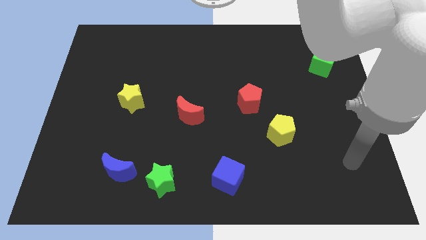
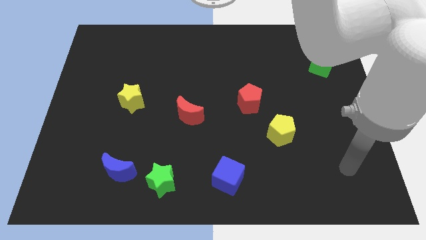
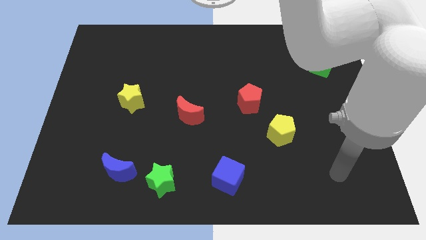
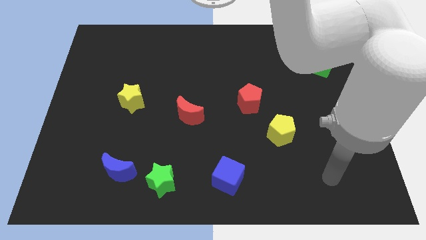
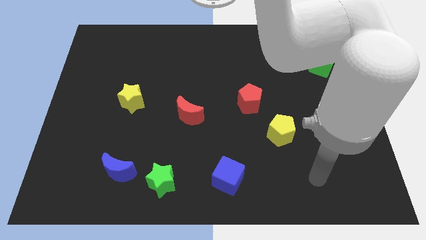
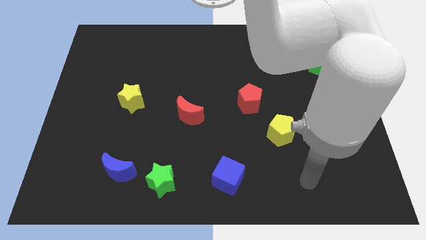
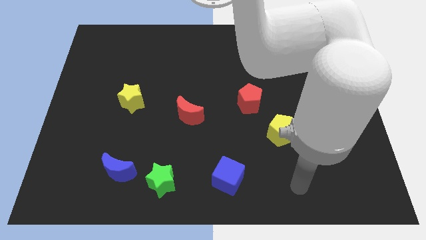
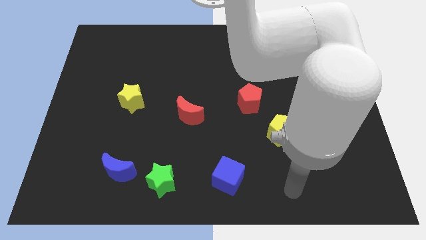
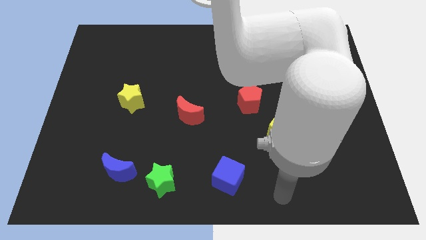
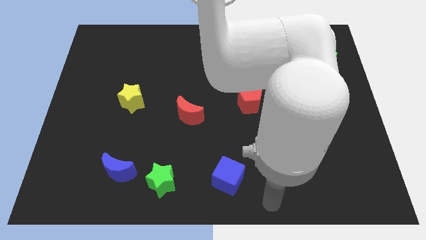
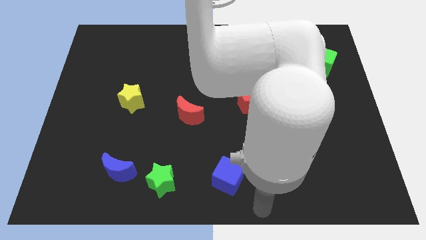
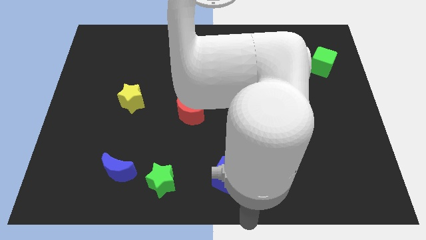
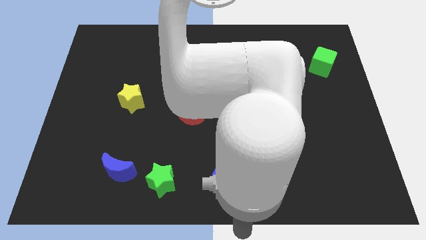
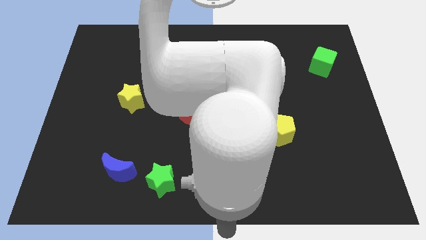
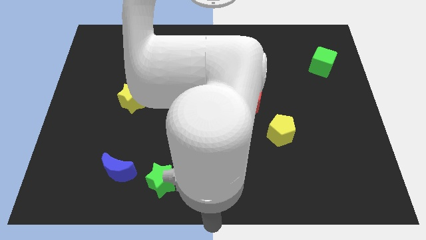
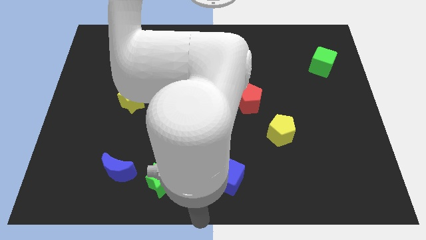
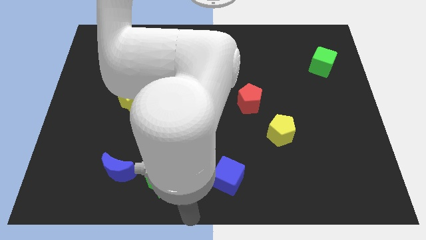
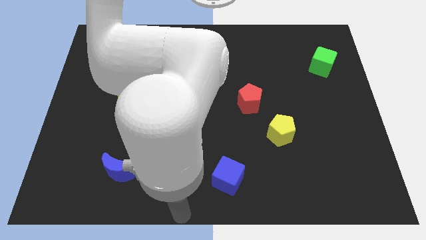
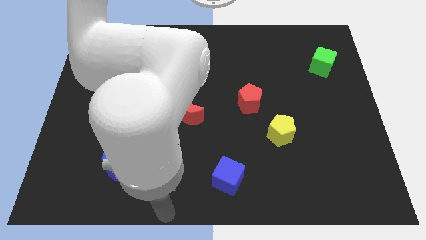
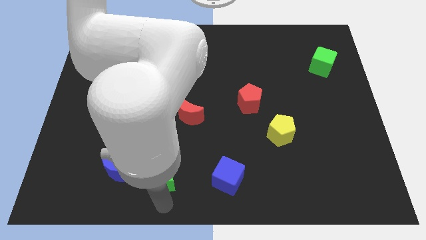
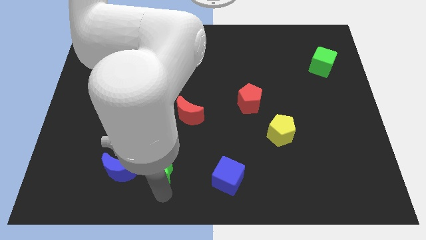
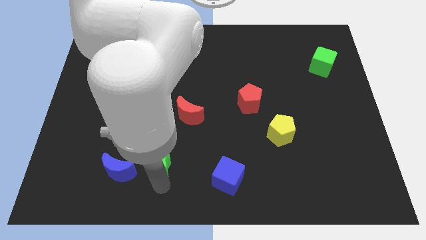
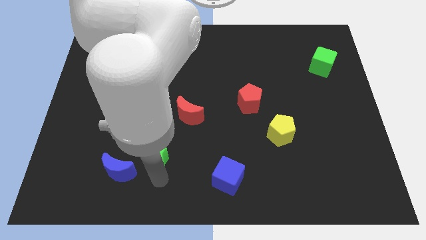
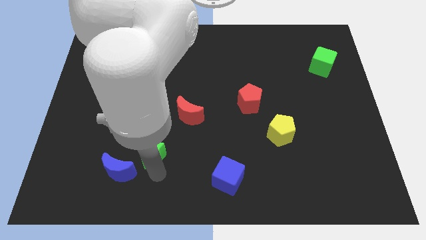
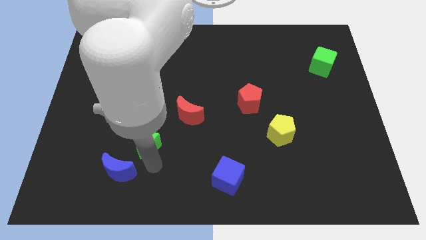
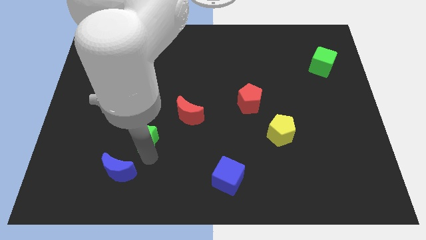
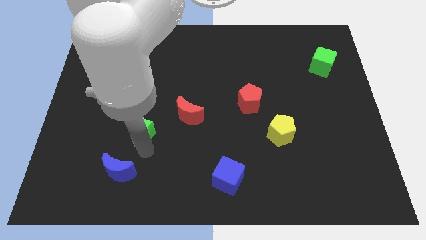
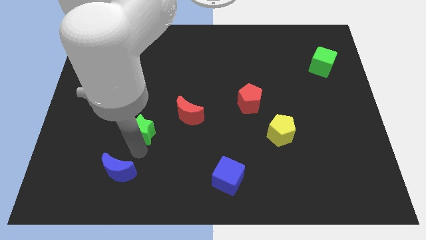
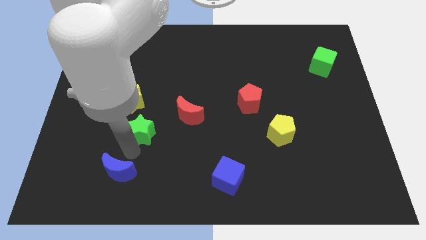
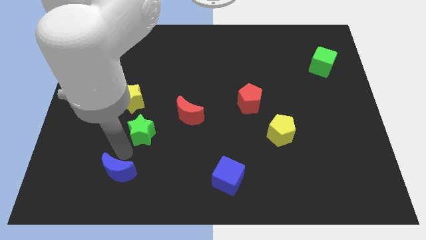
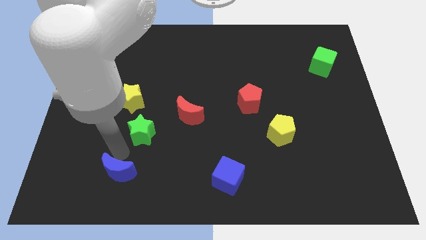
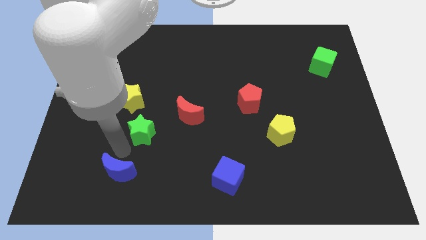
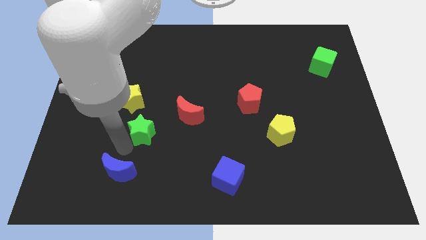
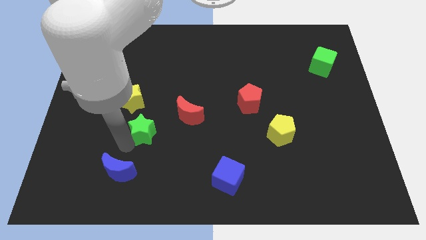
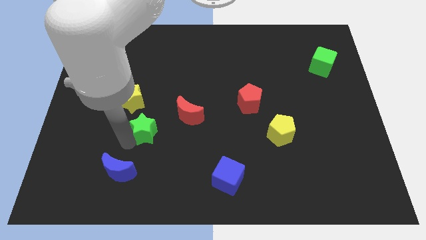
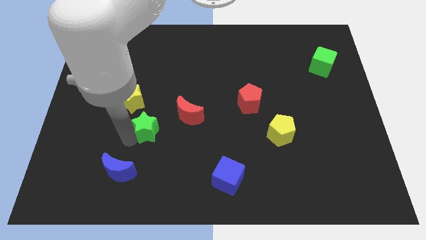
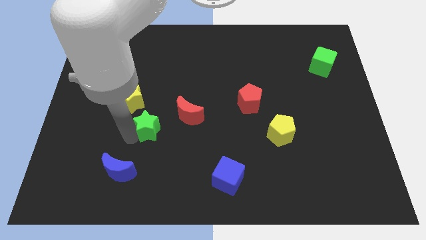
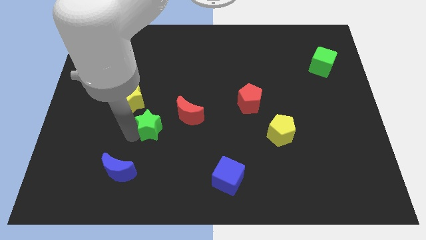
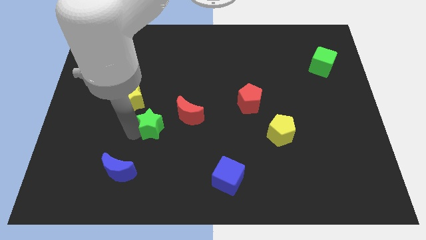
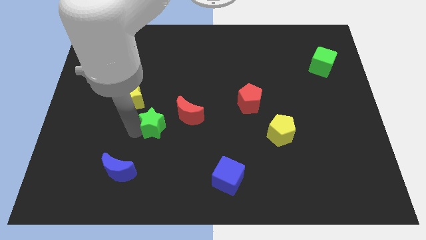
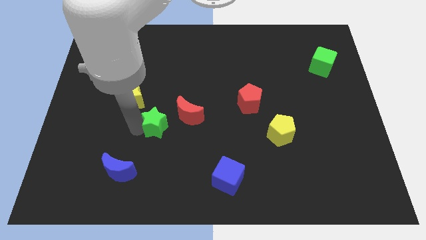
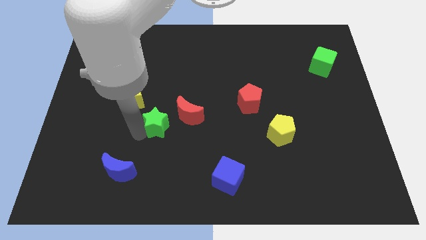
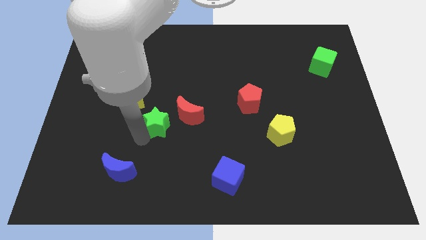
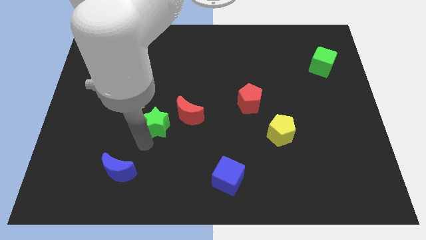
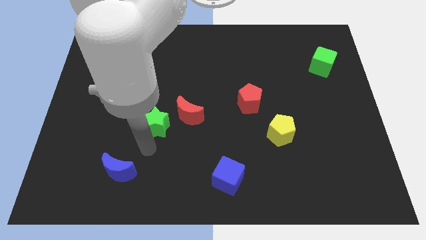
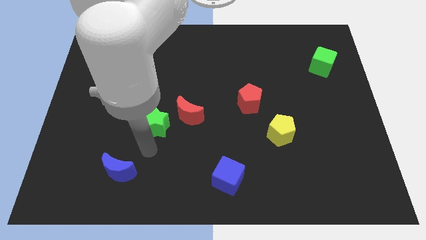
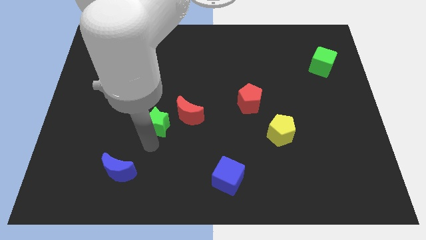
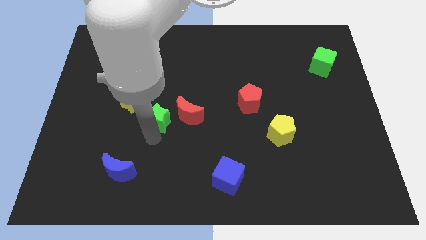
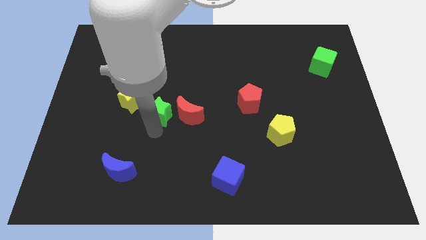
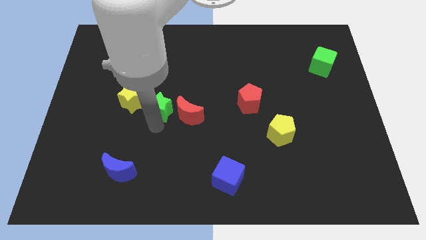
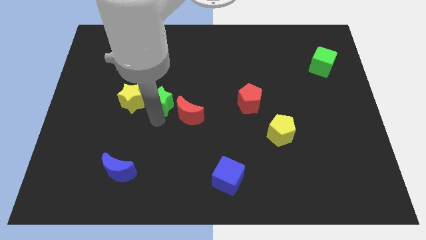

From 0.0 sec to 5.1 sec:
push the green star up

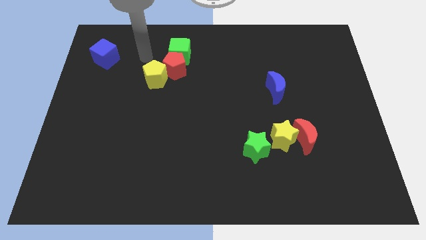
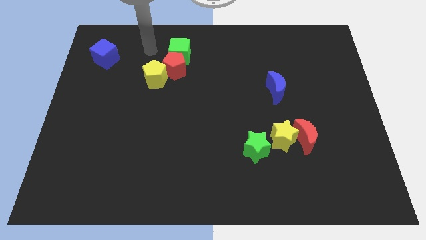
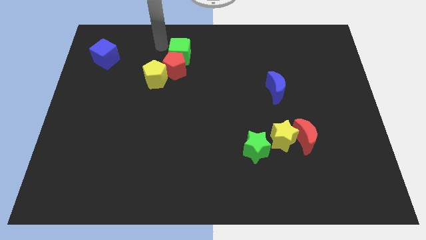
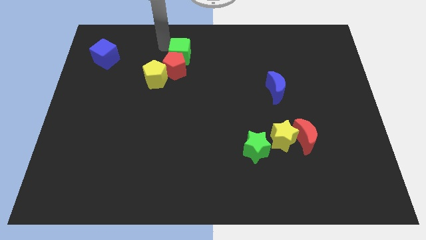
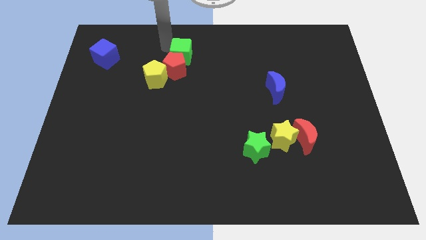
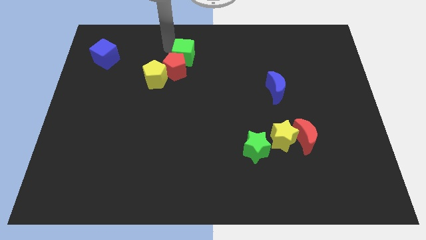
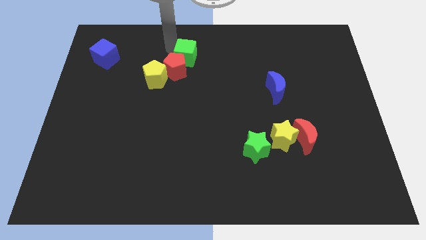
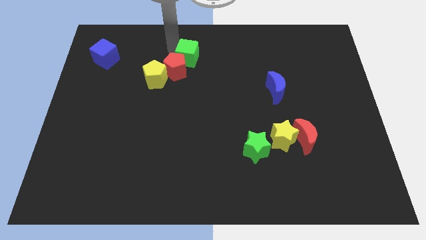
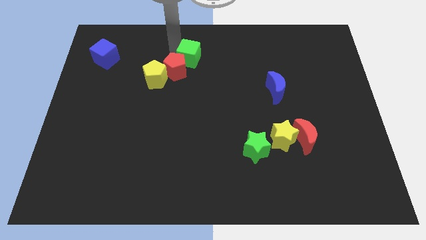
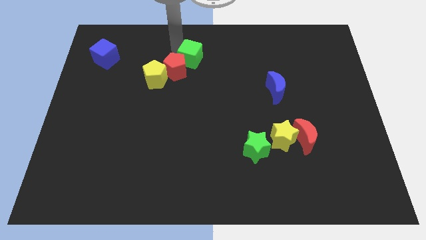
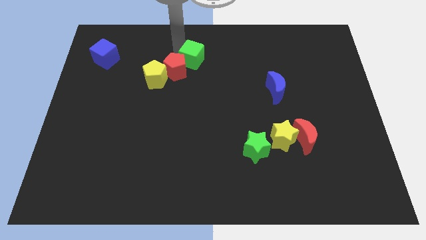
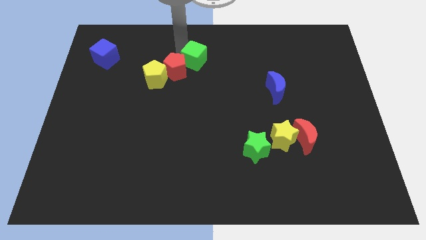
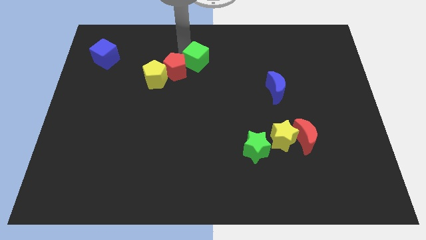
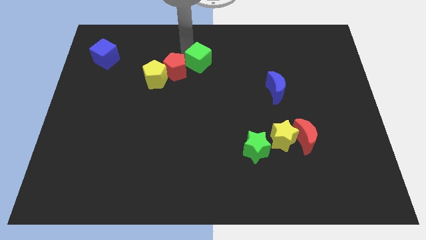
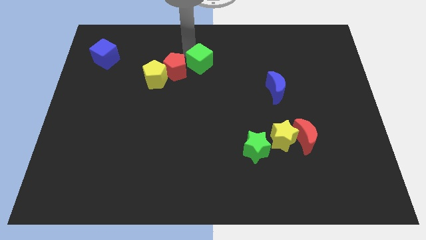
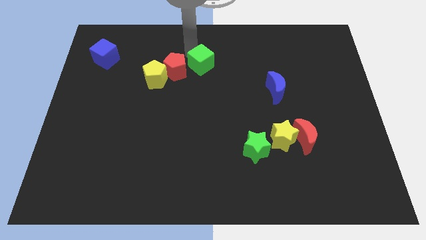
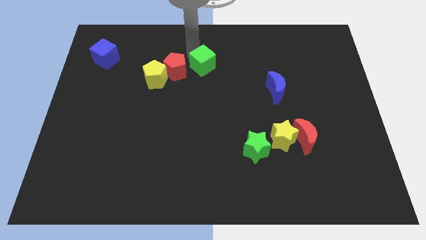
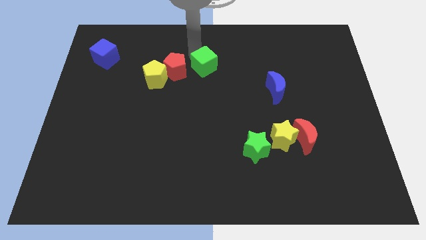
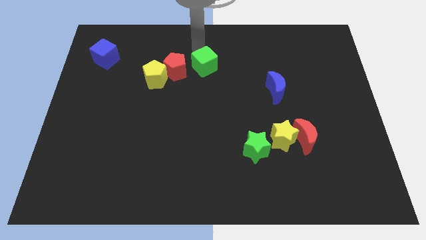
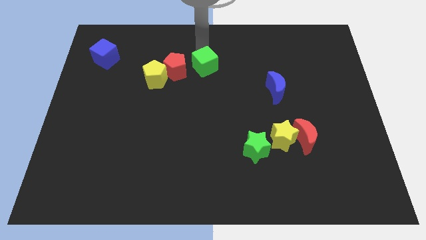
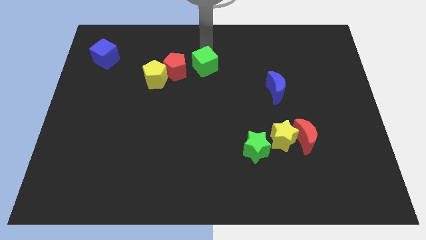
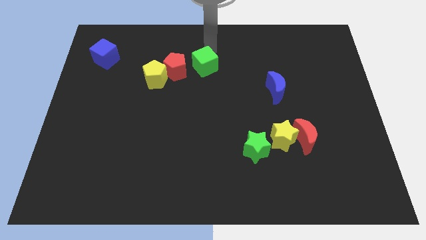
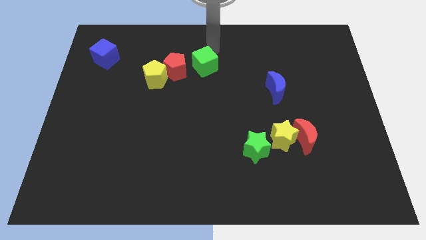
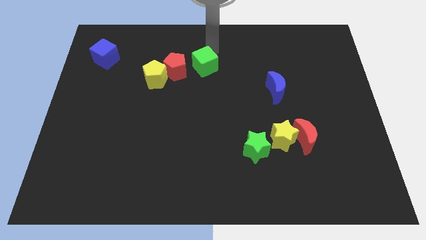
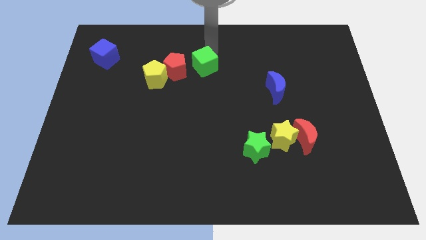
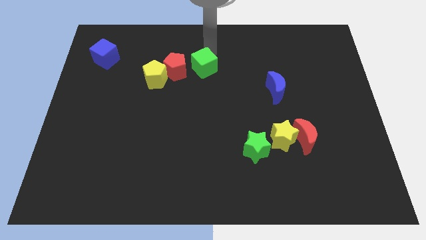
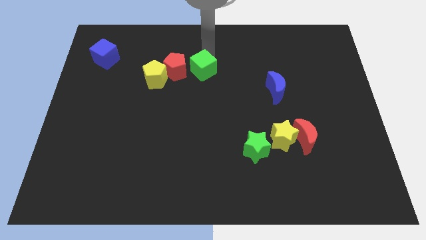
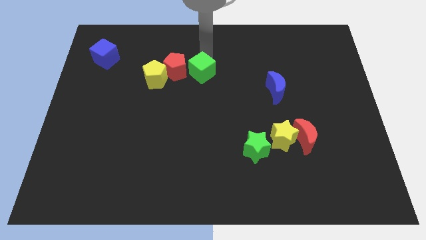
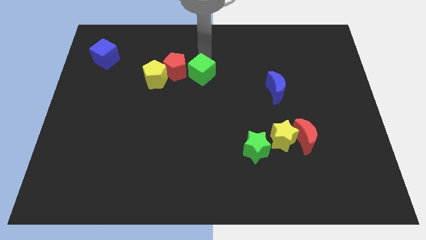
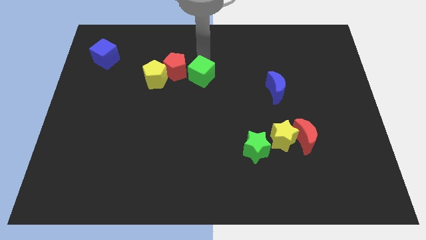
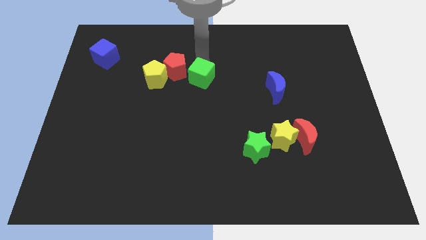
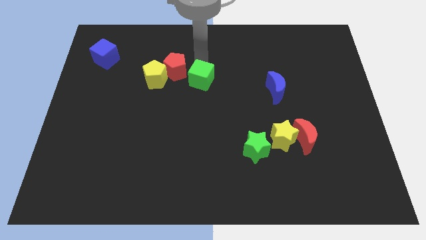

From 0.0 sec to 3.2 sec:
slightly move the green cube down
